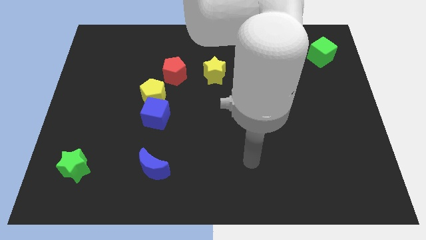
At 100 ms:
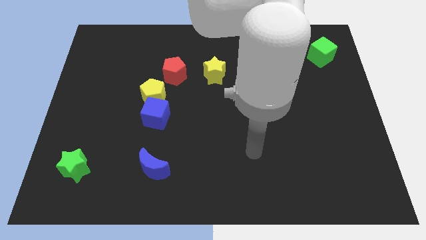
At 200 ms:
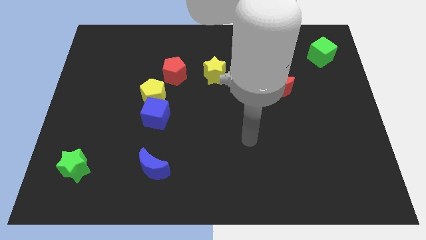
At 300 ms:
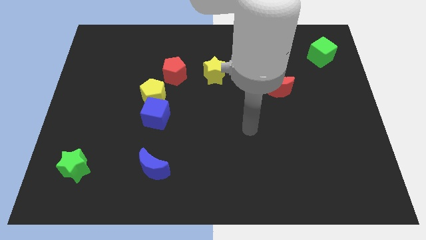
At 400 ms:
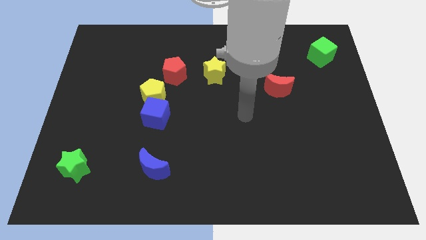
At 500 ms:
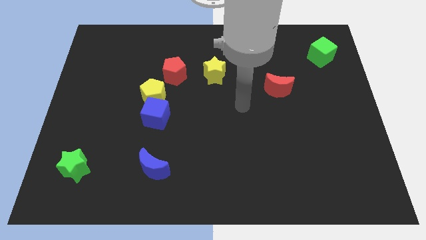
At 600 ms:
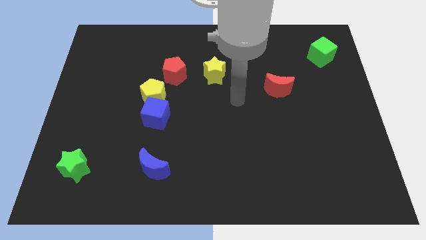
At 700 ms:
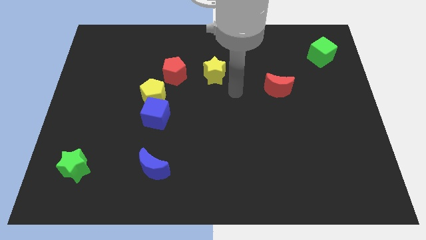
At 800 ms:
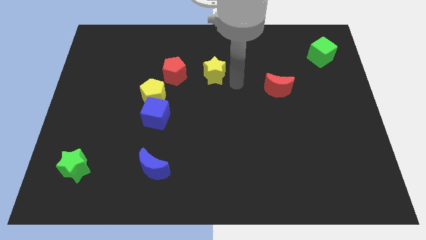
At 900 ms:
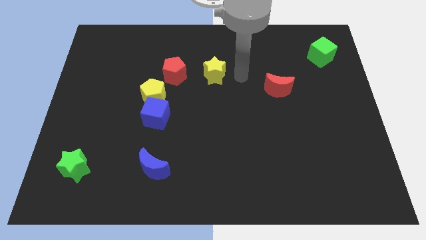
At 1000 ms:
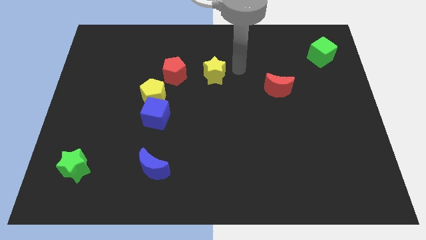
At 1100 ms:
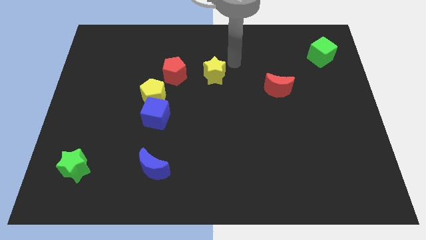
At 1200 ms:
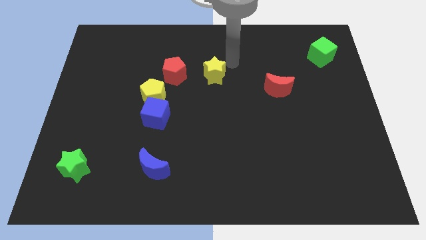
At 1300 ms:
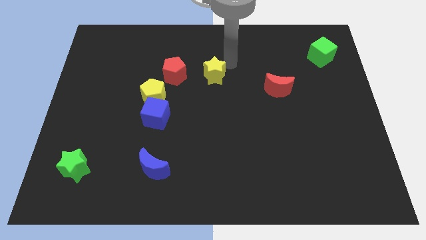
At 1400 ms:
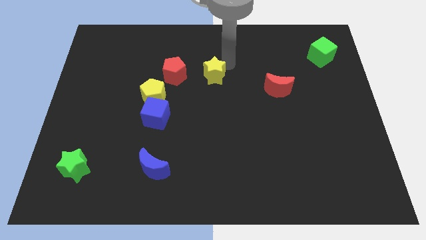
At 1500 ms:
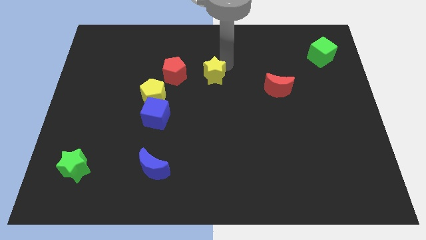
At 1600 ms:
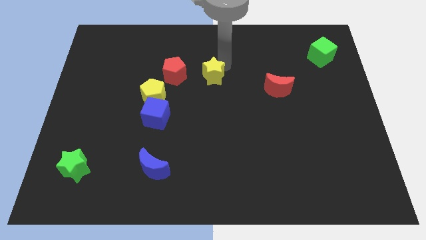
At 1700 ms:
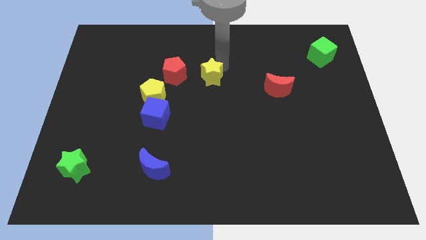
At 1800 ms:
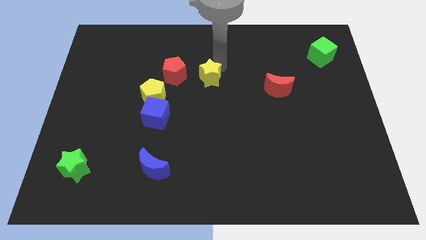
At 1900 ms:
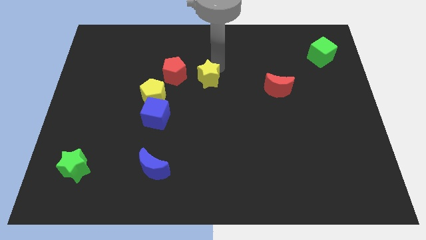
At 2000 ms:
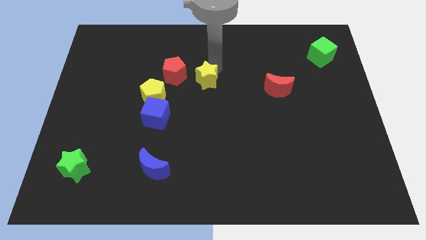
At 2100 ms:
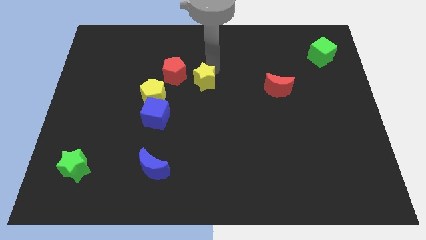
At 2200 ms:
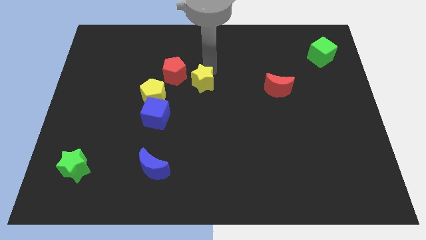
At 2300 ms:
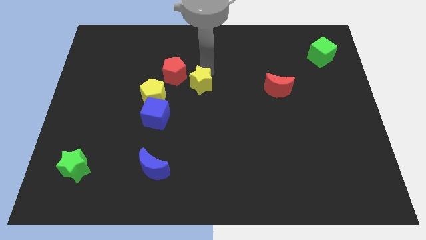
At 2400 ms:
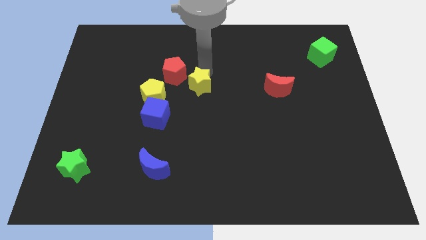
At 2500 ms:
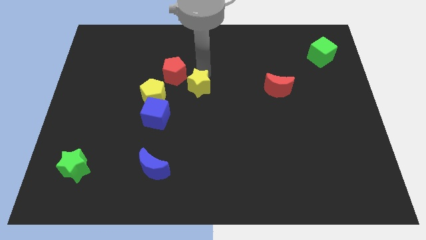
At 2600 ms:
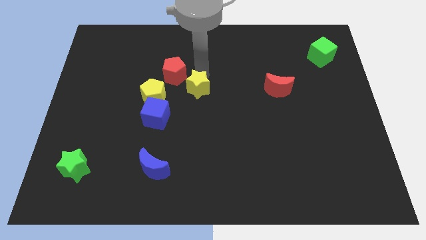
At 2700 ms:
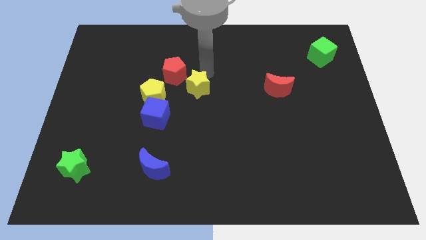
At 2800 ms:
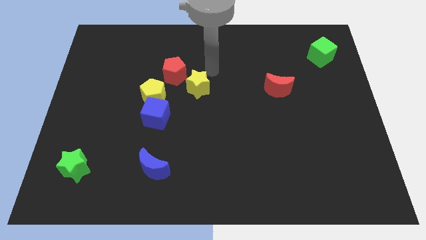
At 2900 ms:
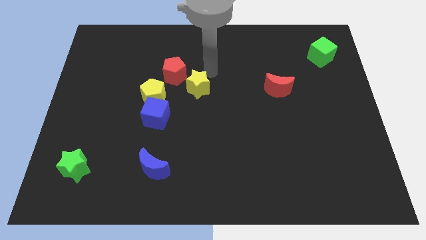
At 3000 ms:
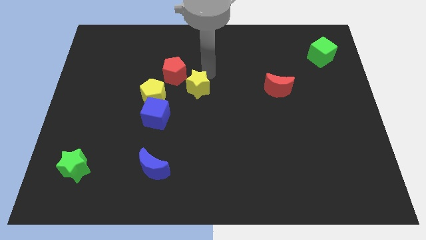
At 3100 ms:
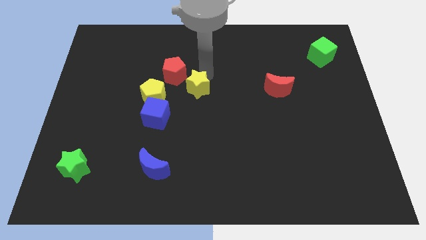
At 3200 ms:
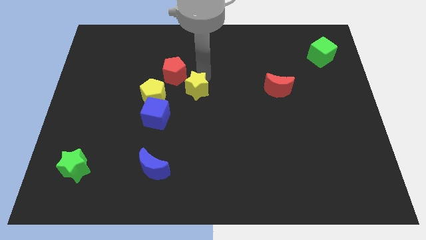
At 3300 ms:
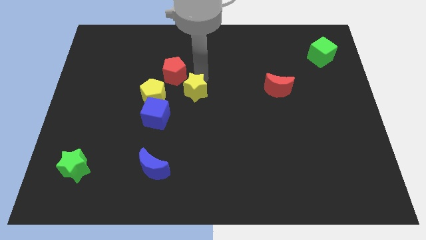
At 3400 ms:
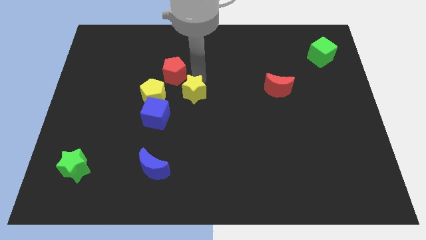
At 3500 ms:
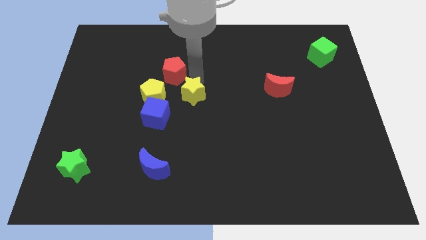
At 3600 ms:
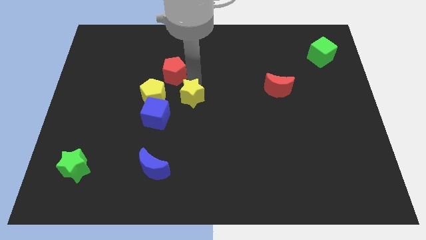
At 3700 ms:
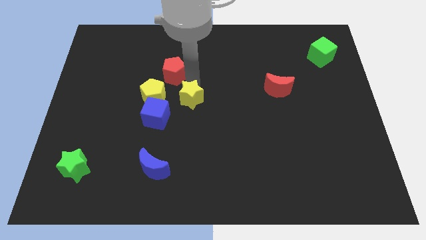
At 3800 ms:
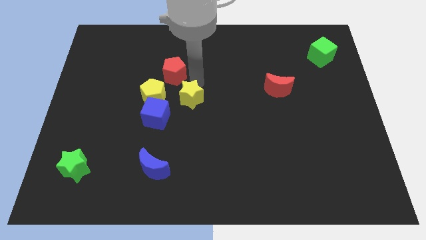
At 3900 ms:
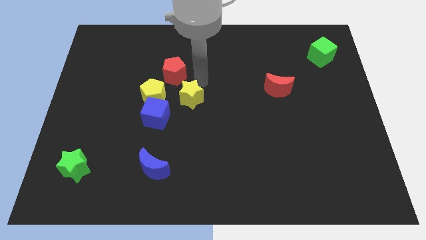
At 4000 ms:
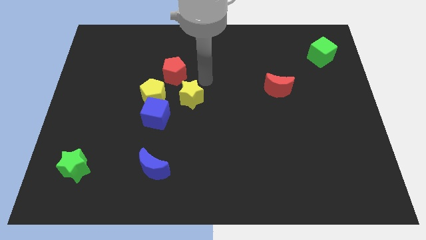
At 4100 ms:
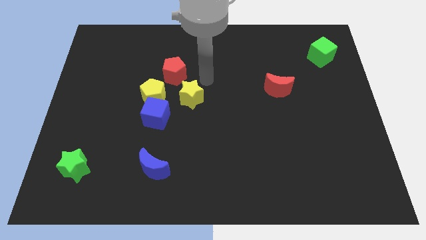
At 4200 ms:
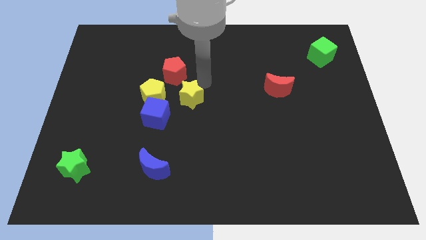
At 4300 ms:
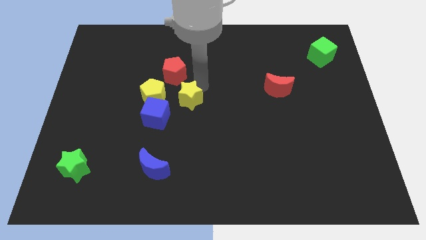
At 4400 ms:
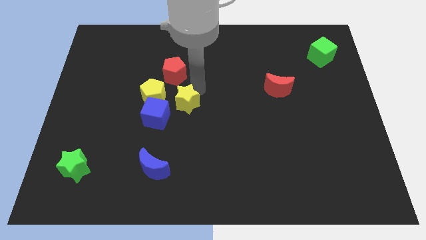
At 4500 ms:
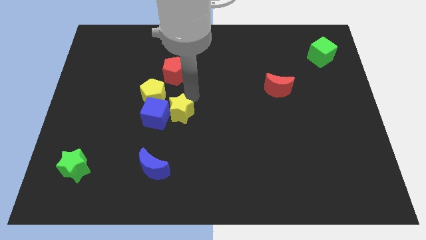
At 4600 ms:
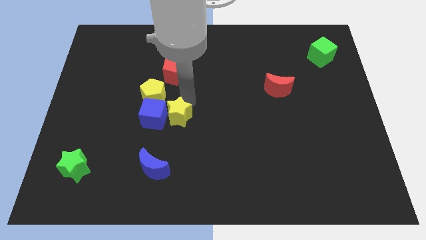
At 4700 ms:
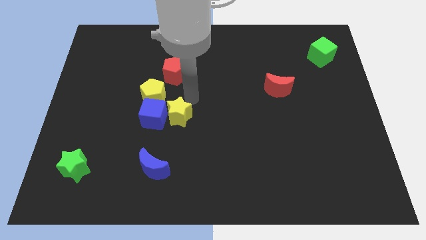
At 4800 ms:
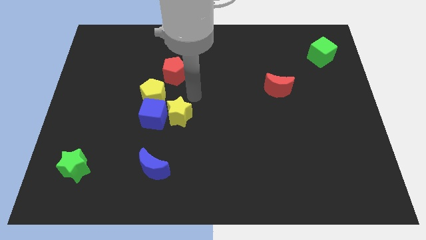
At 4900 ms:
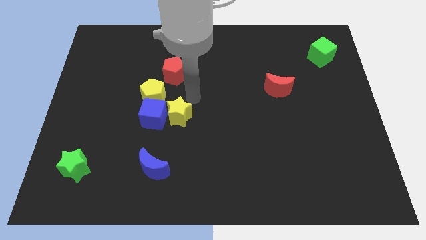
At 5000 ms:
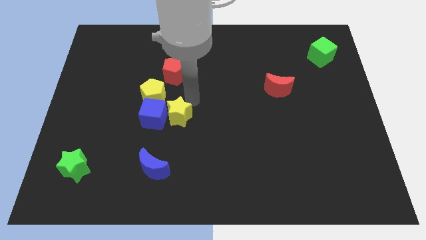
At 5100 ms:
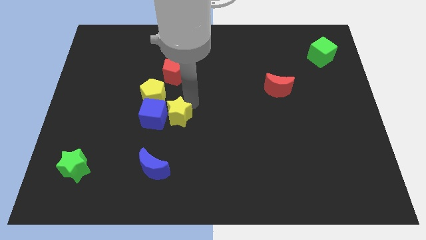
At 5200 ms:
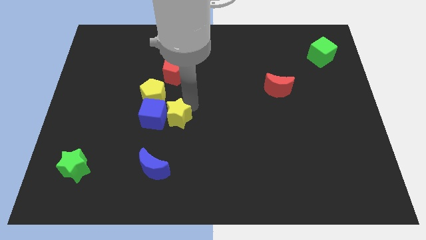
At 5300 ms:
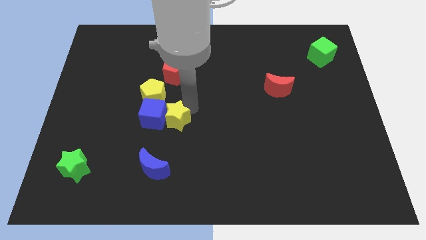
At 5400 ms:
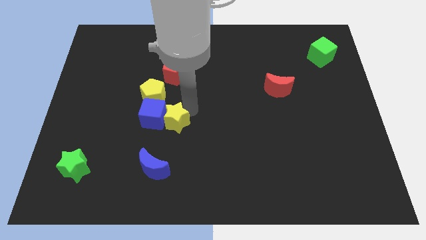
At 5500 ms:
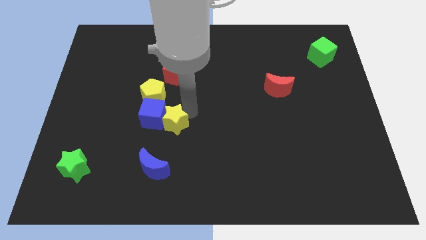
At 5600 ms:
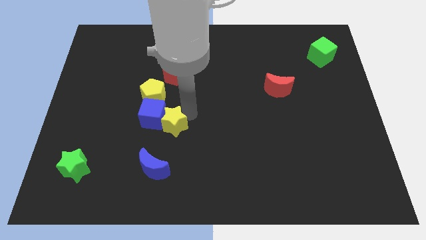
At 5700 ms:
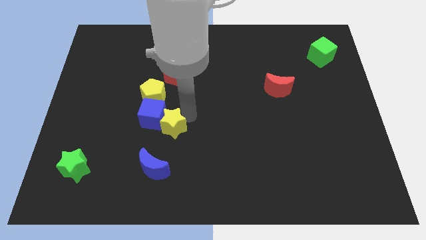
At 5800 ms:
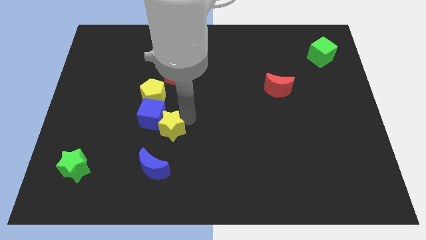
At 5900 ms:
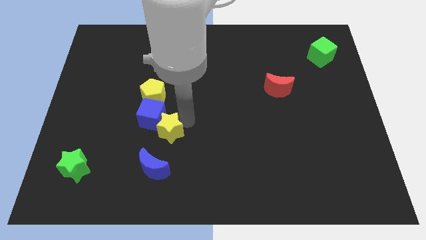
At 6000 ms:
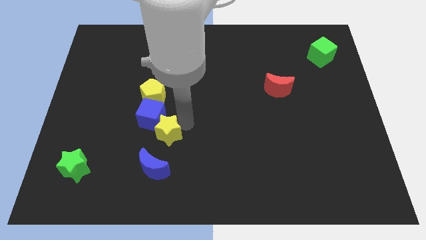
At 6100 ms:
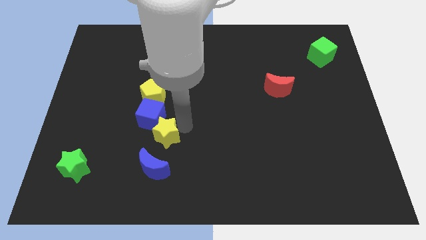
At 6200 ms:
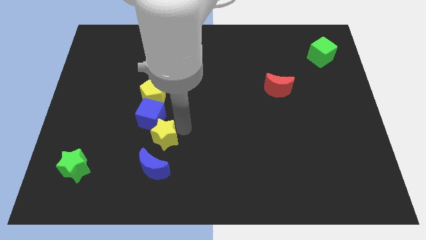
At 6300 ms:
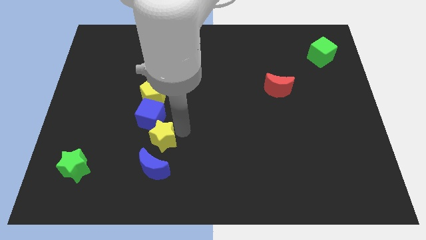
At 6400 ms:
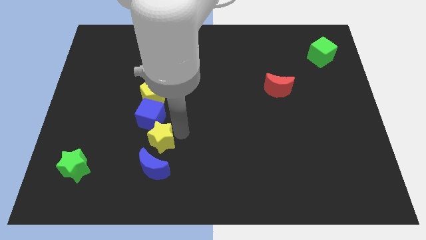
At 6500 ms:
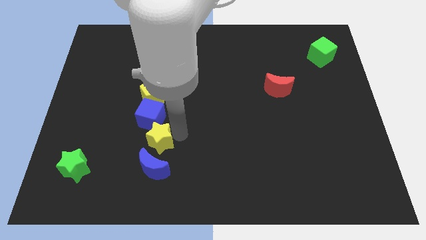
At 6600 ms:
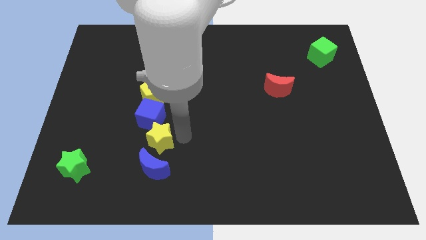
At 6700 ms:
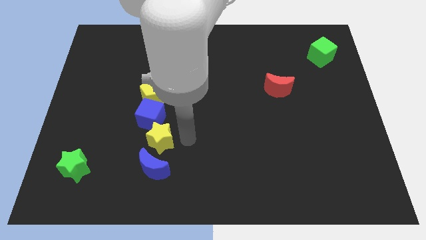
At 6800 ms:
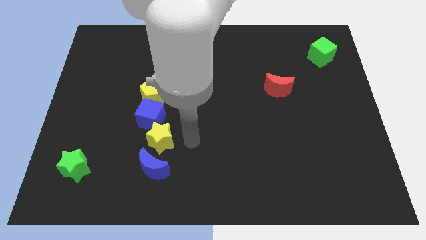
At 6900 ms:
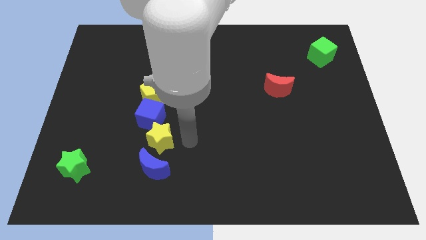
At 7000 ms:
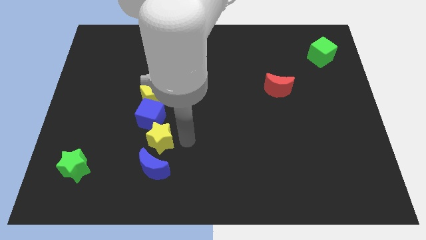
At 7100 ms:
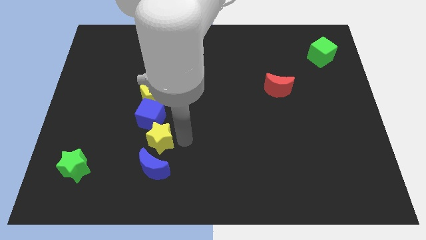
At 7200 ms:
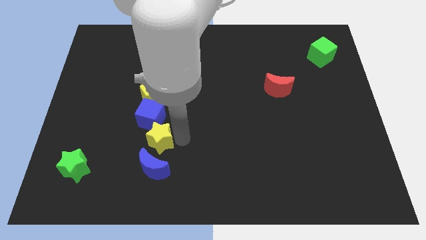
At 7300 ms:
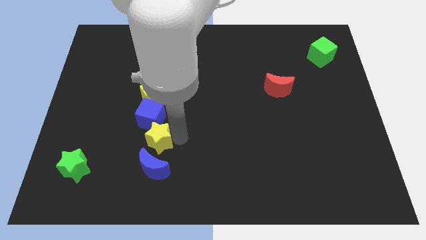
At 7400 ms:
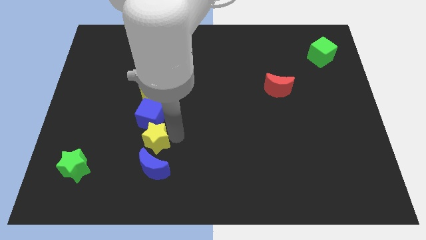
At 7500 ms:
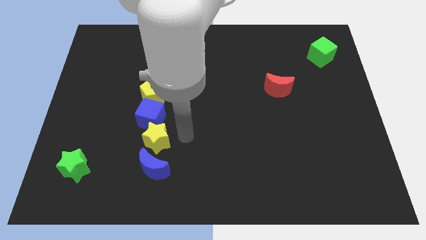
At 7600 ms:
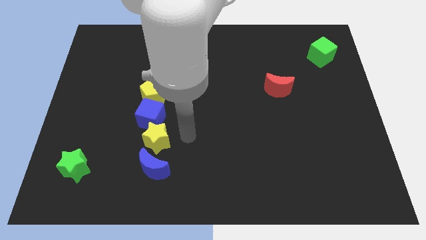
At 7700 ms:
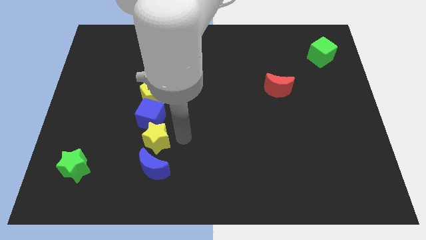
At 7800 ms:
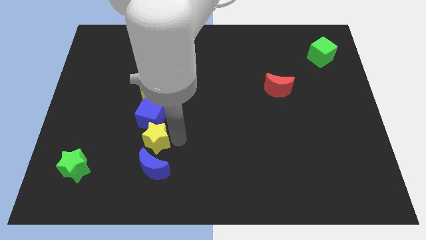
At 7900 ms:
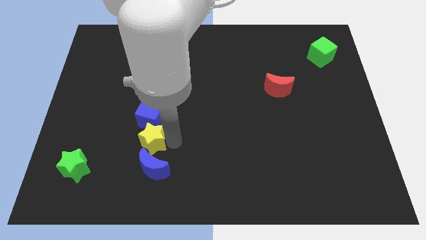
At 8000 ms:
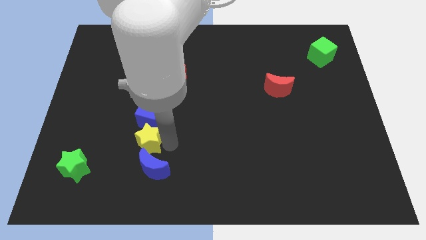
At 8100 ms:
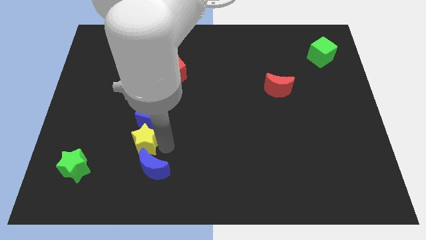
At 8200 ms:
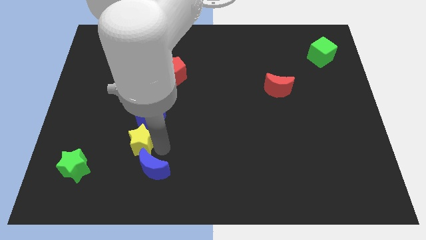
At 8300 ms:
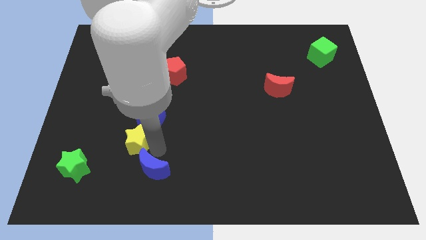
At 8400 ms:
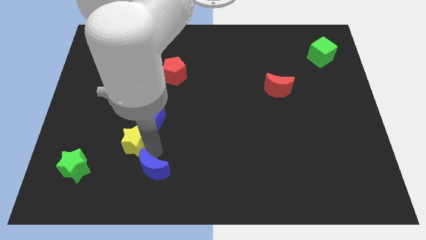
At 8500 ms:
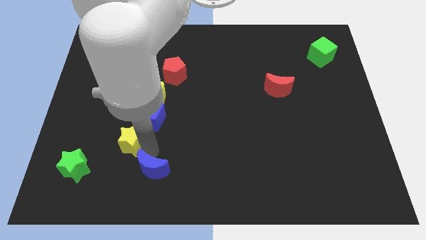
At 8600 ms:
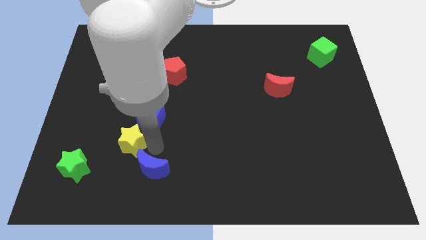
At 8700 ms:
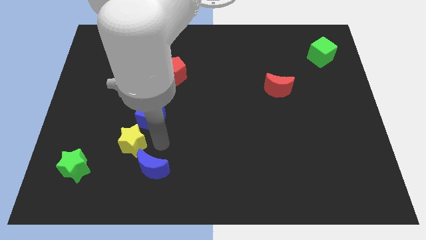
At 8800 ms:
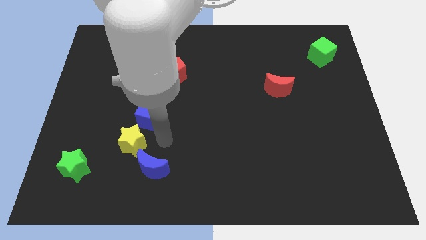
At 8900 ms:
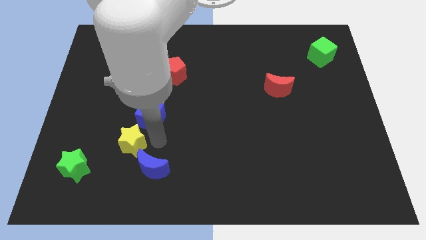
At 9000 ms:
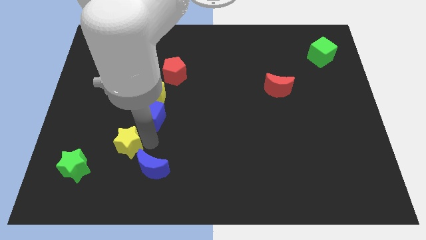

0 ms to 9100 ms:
move the yellow star diagonally up and to the right of the green star
